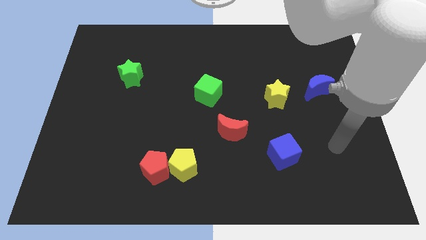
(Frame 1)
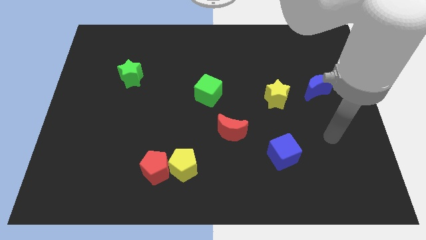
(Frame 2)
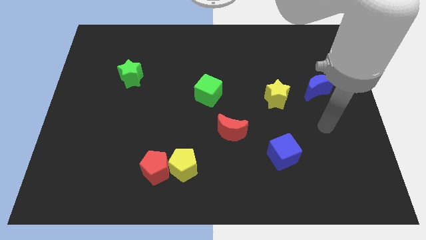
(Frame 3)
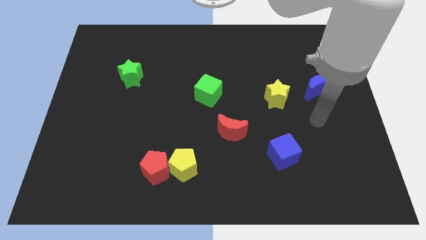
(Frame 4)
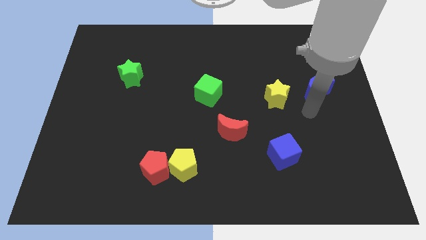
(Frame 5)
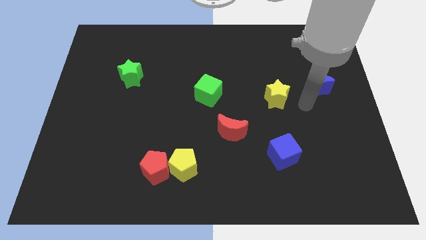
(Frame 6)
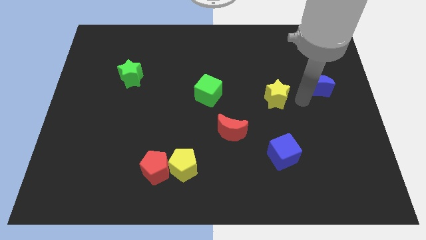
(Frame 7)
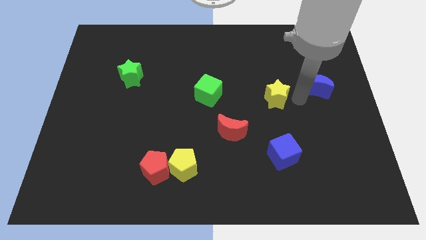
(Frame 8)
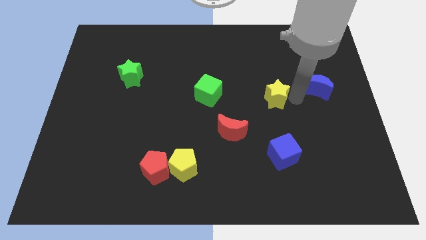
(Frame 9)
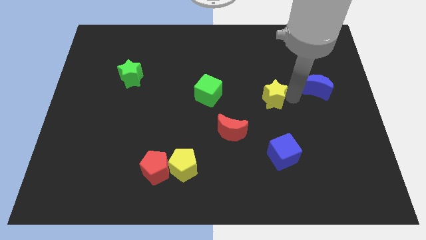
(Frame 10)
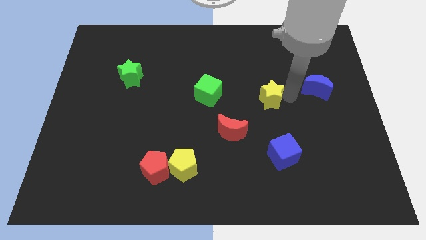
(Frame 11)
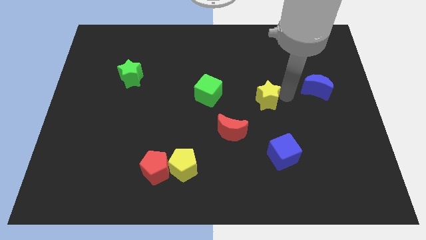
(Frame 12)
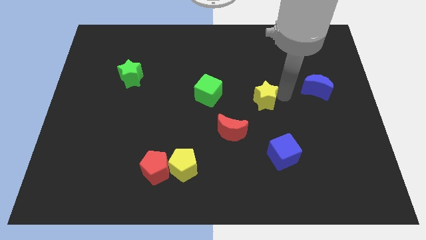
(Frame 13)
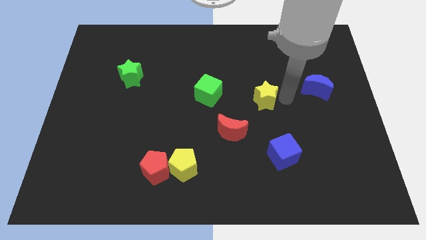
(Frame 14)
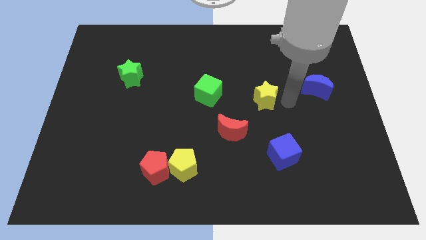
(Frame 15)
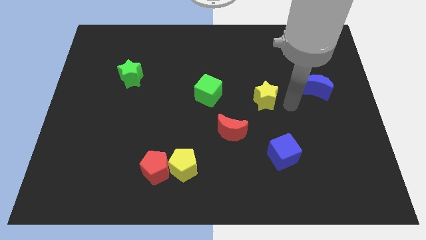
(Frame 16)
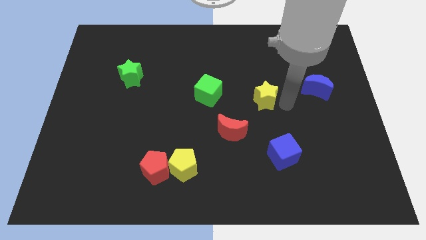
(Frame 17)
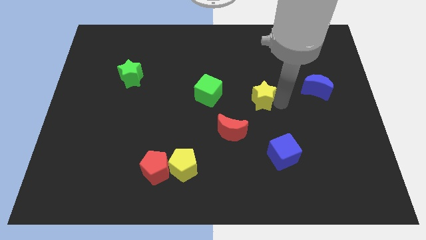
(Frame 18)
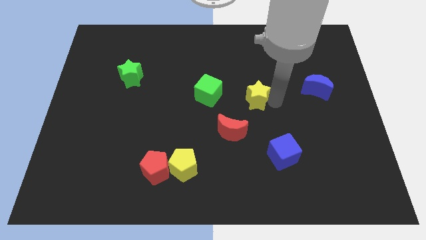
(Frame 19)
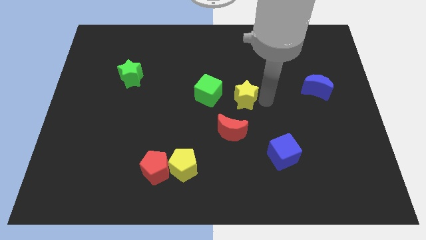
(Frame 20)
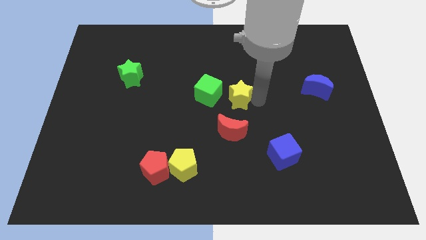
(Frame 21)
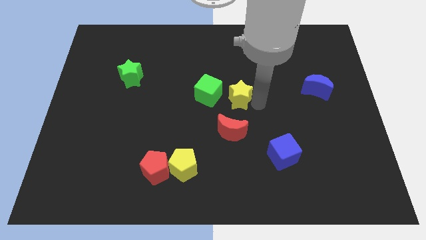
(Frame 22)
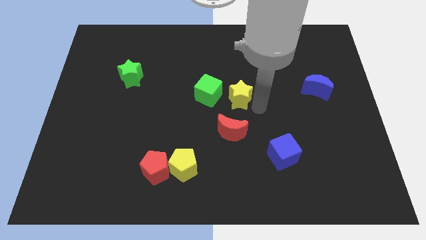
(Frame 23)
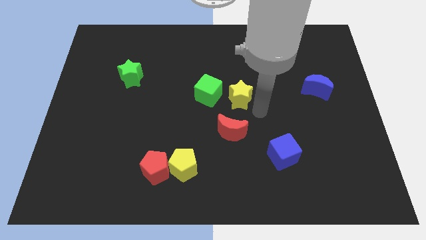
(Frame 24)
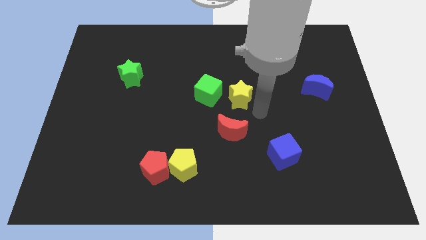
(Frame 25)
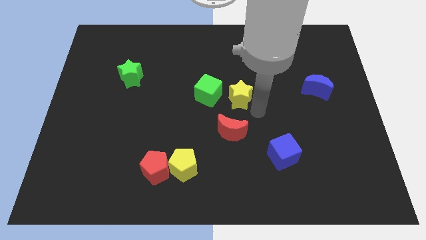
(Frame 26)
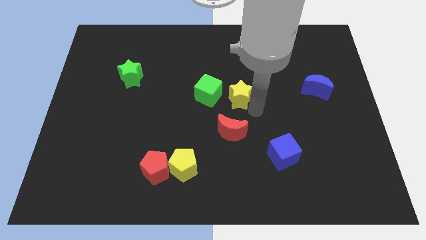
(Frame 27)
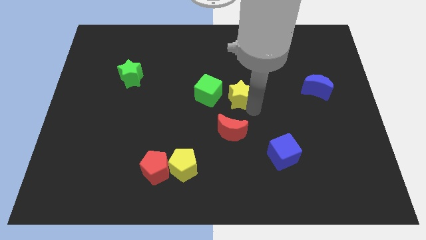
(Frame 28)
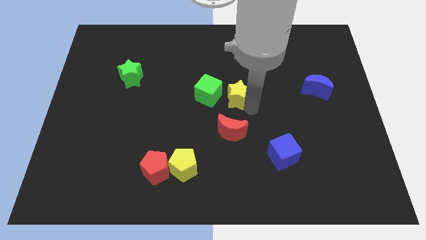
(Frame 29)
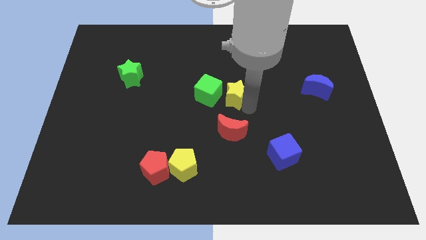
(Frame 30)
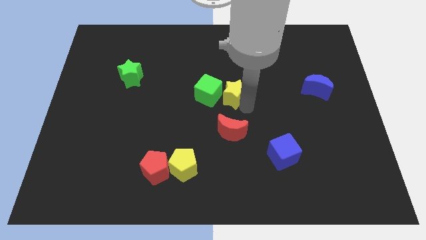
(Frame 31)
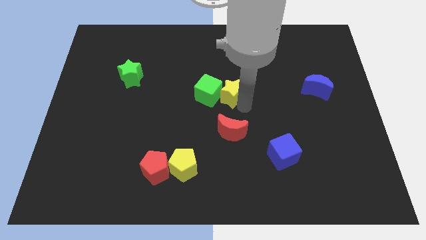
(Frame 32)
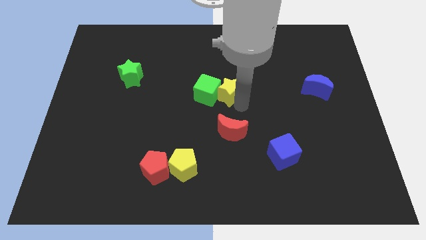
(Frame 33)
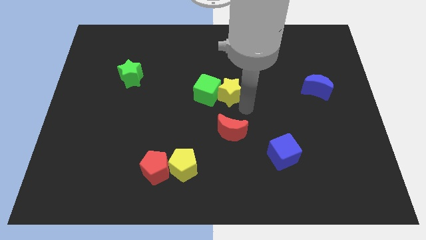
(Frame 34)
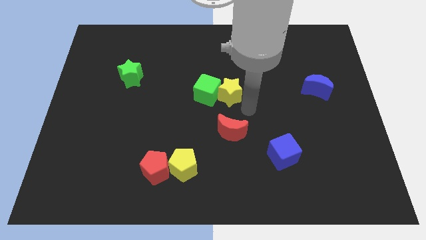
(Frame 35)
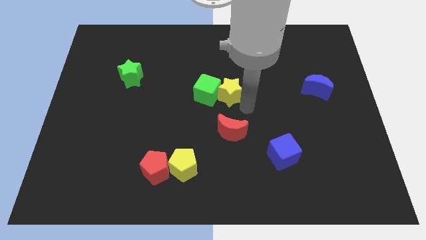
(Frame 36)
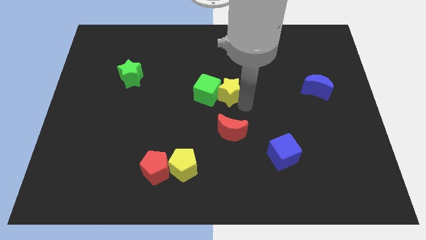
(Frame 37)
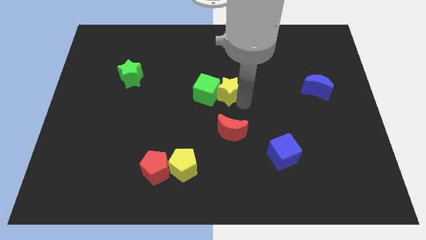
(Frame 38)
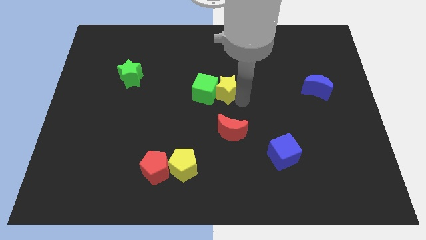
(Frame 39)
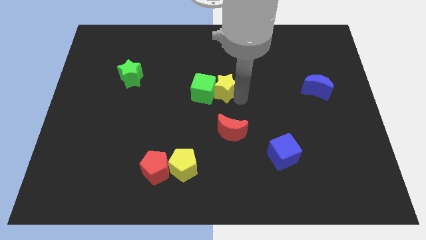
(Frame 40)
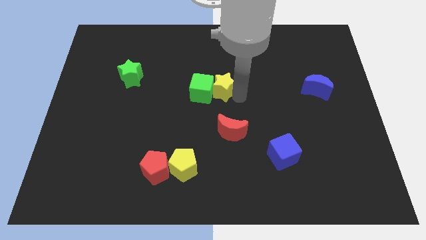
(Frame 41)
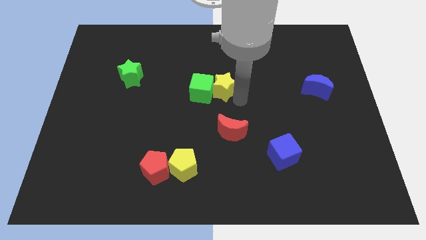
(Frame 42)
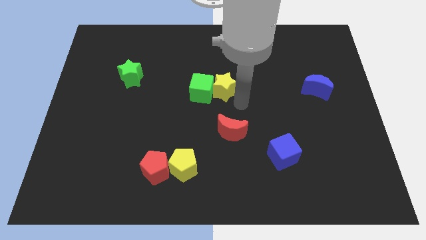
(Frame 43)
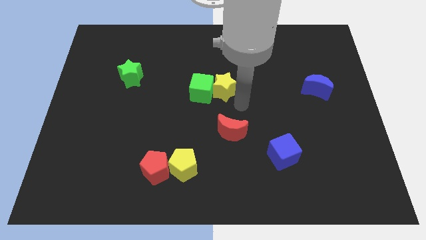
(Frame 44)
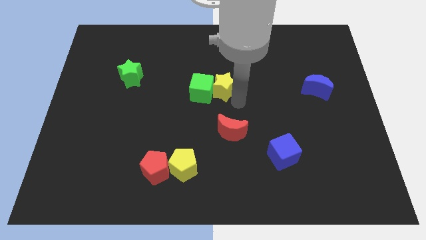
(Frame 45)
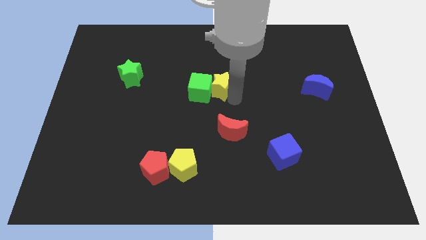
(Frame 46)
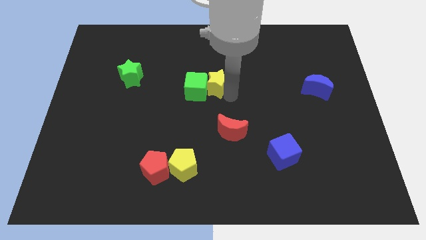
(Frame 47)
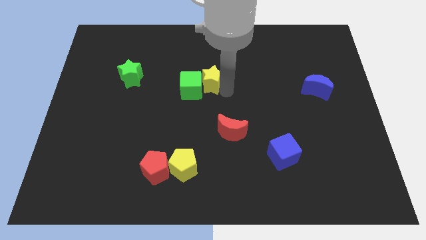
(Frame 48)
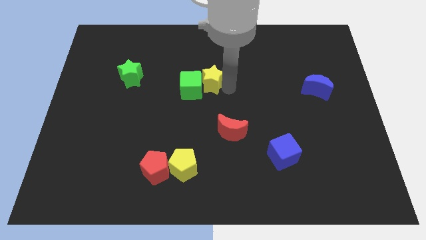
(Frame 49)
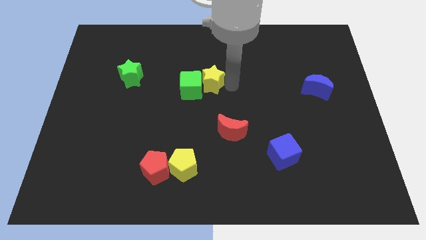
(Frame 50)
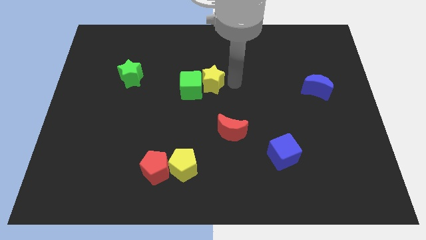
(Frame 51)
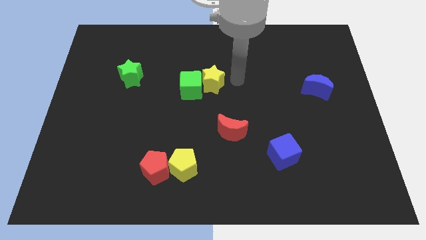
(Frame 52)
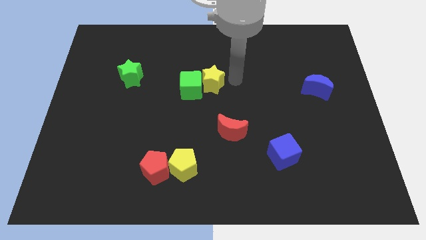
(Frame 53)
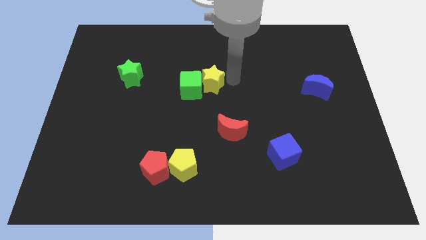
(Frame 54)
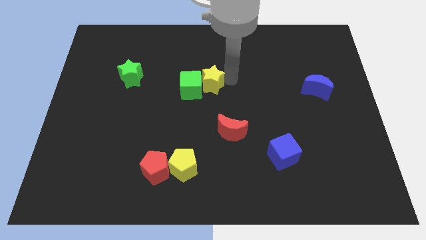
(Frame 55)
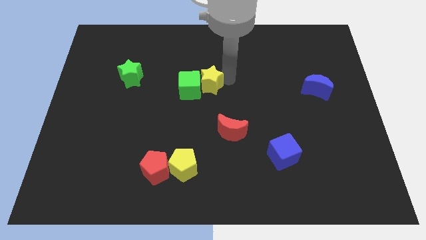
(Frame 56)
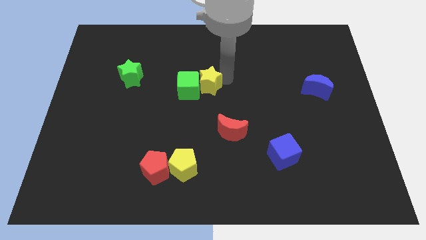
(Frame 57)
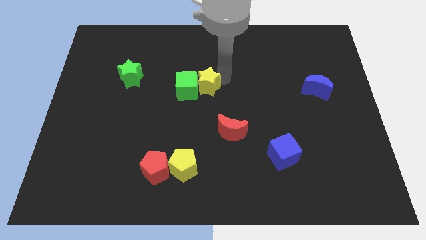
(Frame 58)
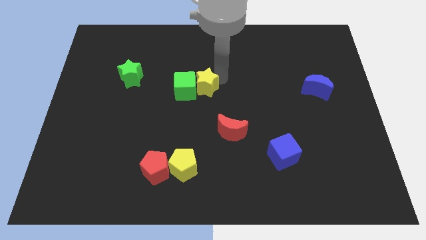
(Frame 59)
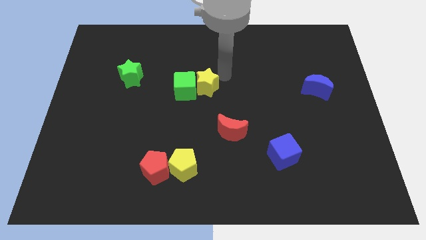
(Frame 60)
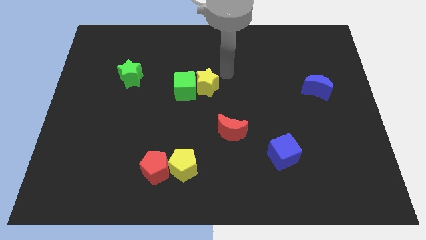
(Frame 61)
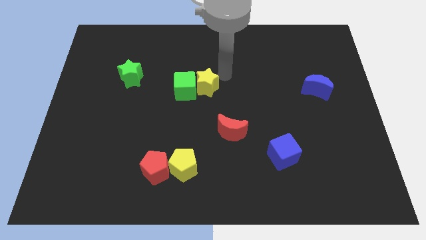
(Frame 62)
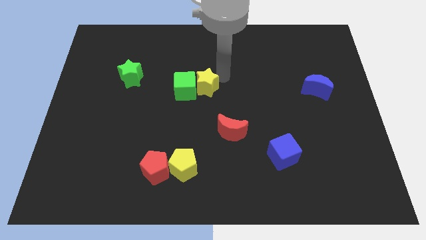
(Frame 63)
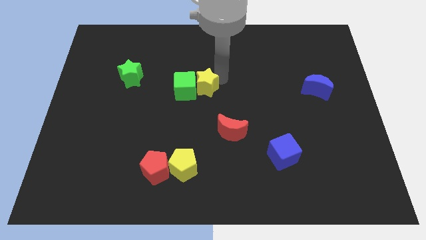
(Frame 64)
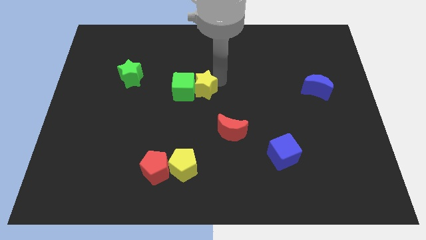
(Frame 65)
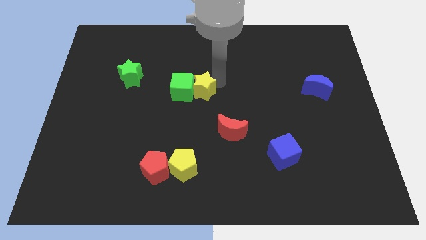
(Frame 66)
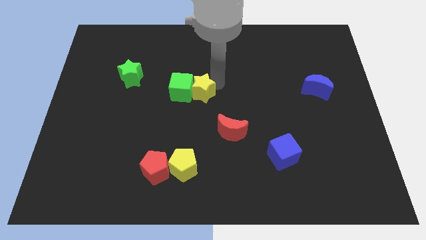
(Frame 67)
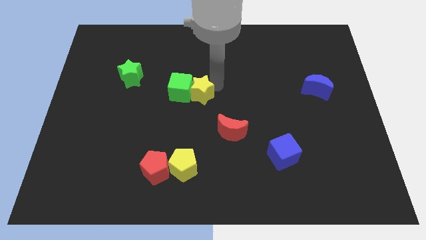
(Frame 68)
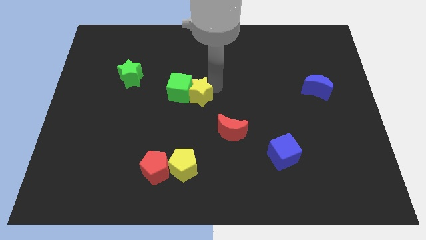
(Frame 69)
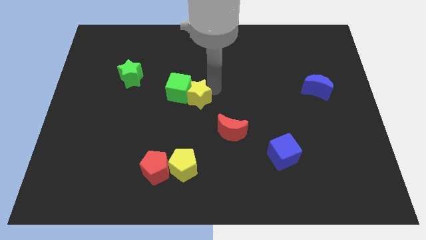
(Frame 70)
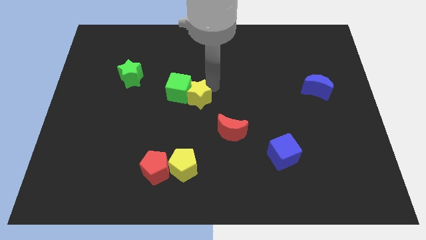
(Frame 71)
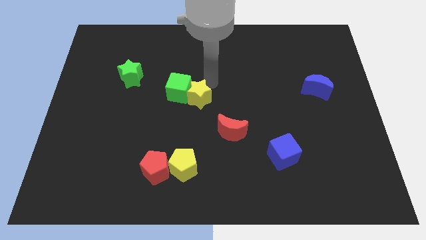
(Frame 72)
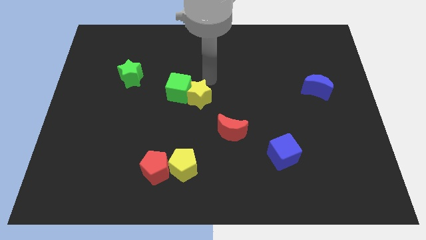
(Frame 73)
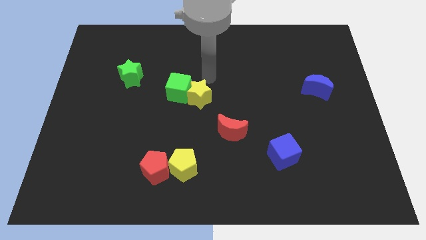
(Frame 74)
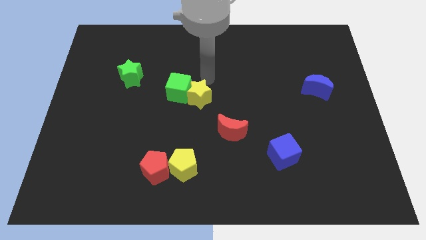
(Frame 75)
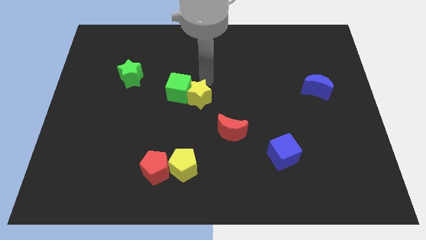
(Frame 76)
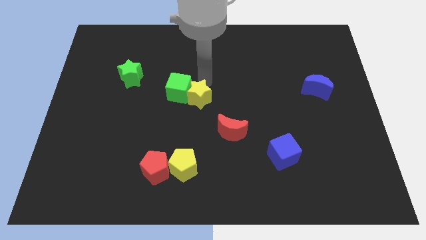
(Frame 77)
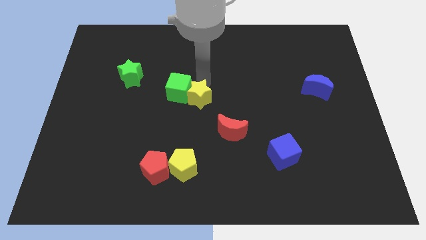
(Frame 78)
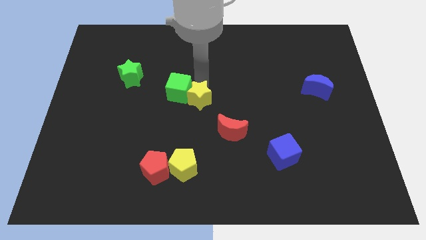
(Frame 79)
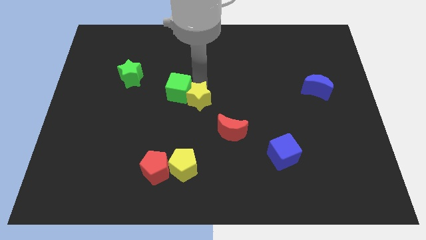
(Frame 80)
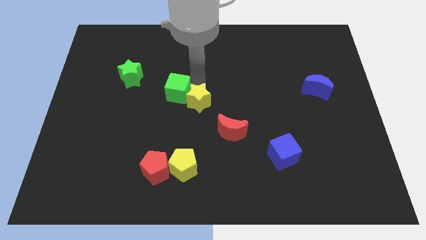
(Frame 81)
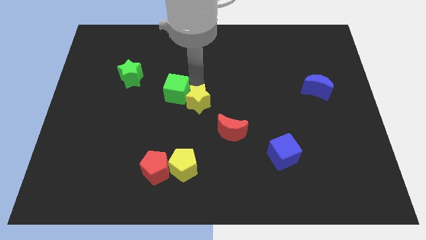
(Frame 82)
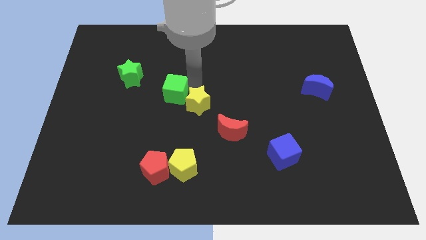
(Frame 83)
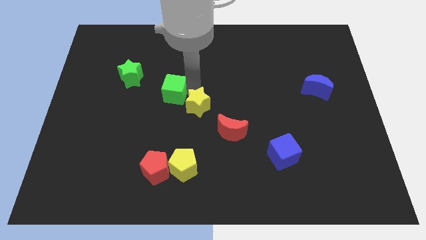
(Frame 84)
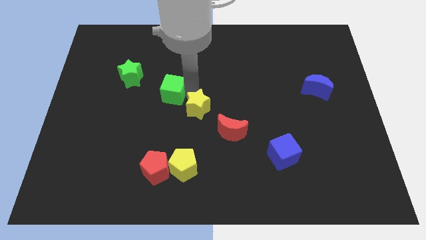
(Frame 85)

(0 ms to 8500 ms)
push the yellow star above the yellow pentagon
